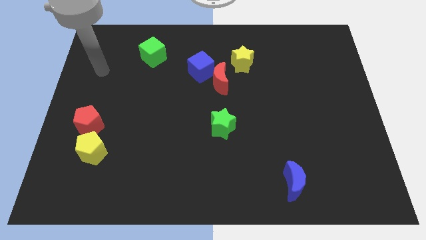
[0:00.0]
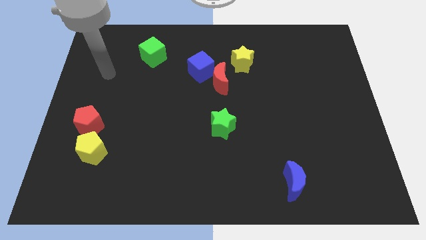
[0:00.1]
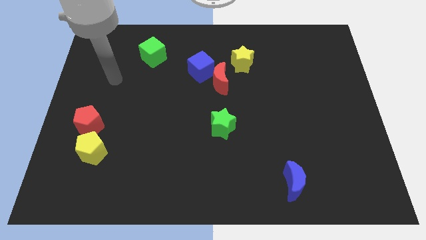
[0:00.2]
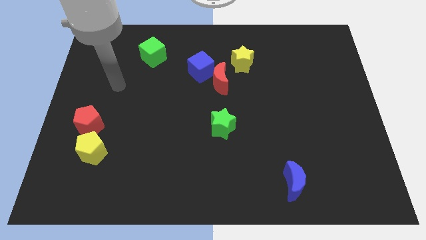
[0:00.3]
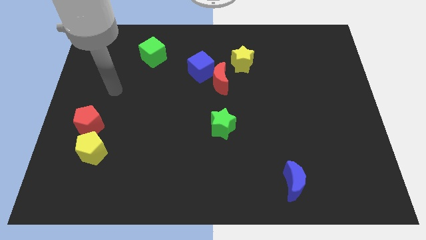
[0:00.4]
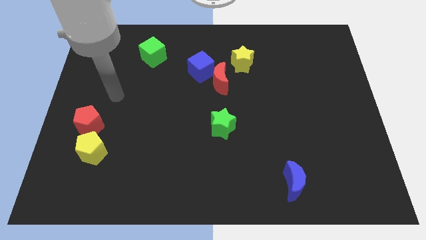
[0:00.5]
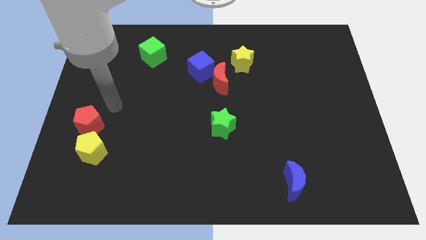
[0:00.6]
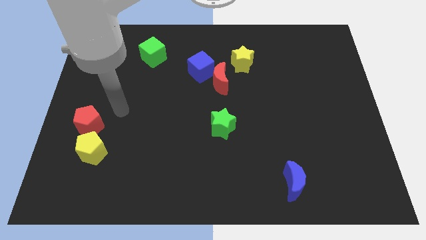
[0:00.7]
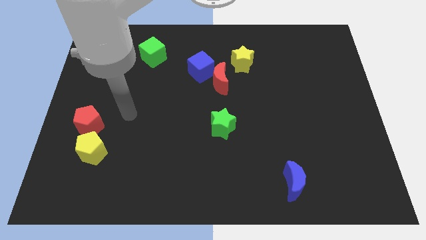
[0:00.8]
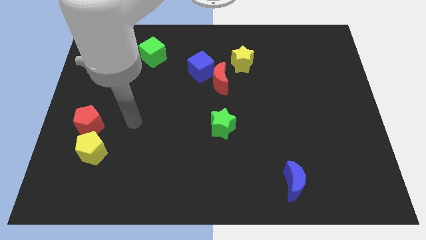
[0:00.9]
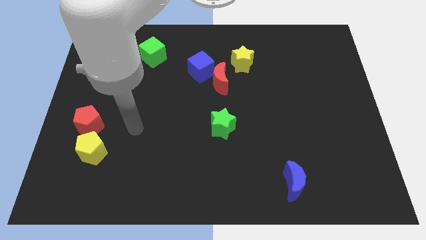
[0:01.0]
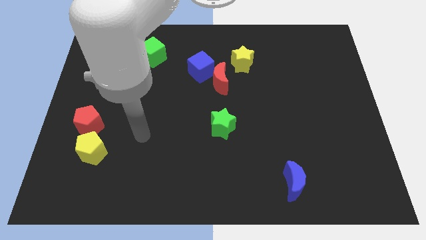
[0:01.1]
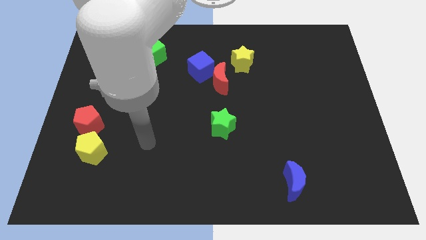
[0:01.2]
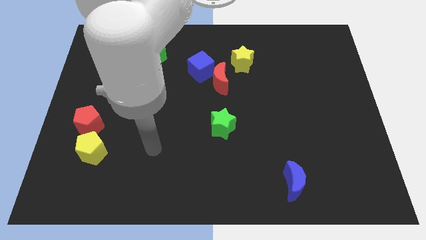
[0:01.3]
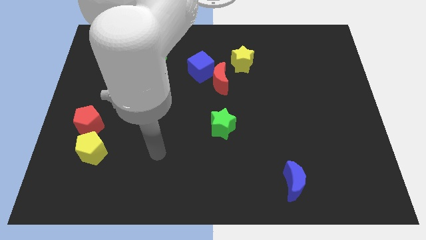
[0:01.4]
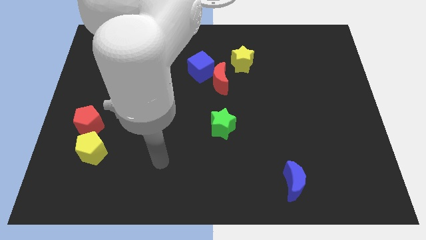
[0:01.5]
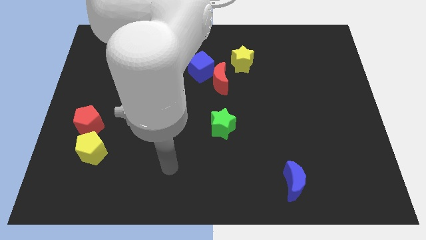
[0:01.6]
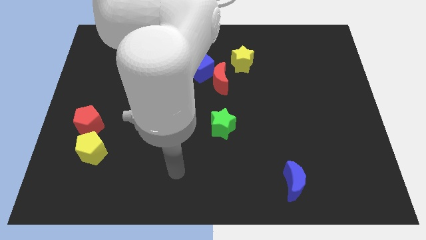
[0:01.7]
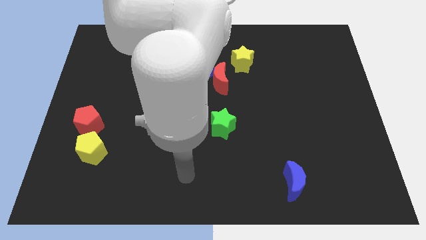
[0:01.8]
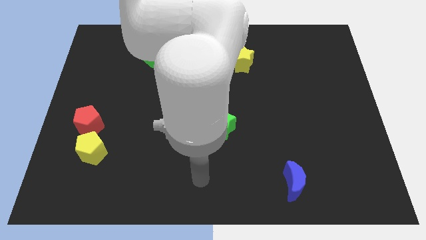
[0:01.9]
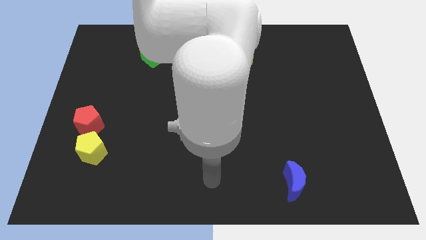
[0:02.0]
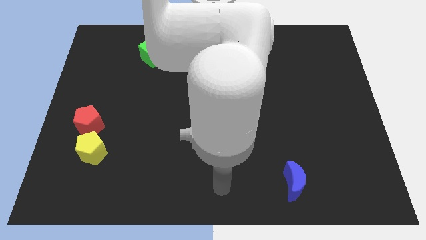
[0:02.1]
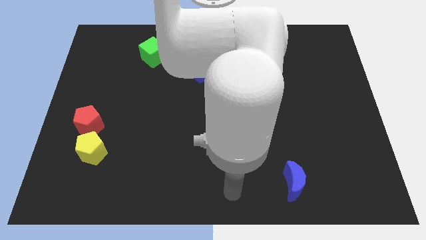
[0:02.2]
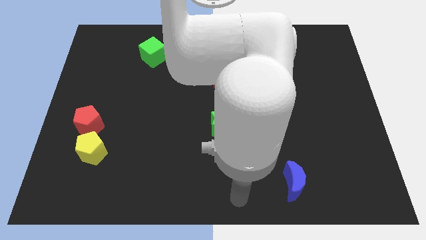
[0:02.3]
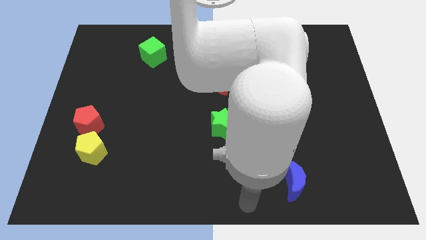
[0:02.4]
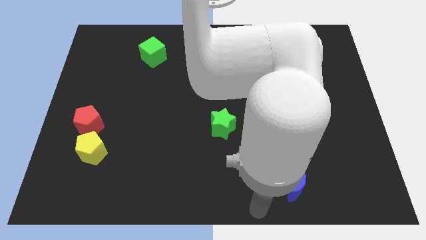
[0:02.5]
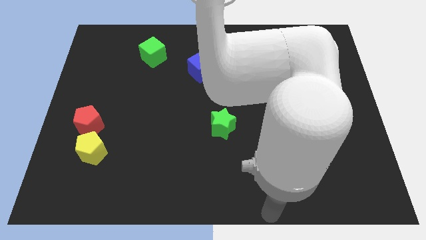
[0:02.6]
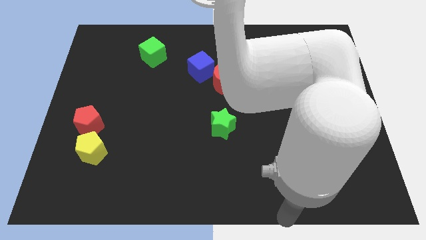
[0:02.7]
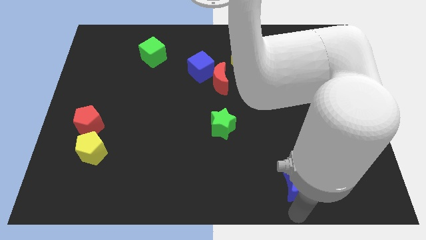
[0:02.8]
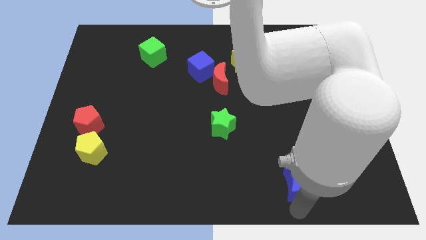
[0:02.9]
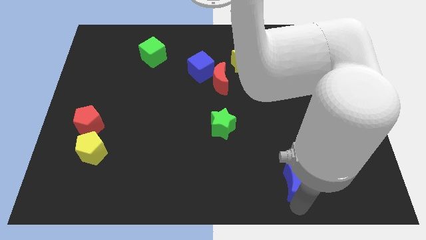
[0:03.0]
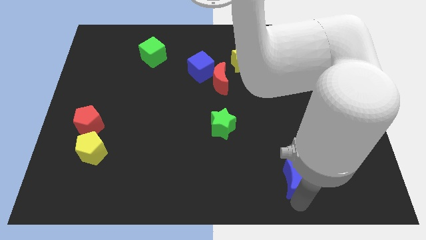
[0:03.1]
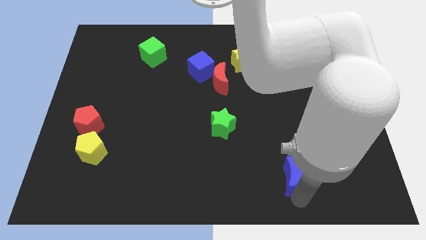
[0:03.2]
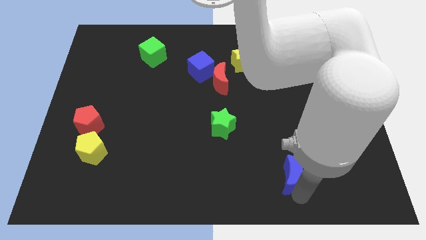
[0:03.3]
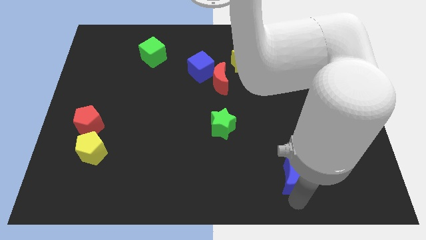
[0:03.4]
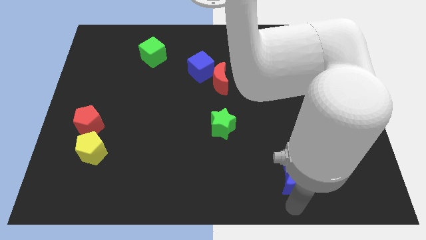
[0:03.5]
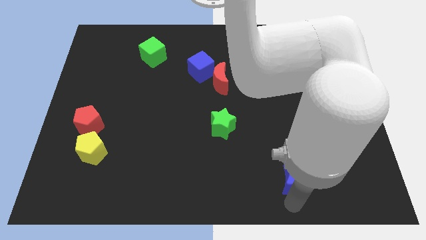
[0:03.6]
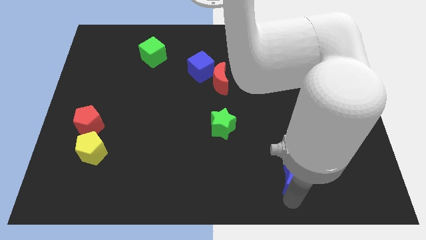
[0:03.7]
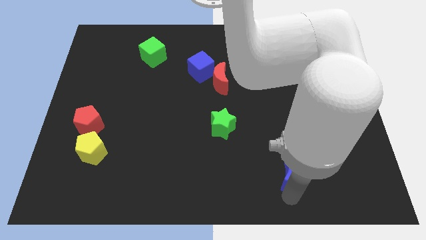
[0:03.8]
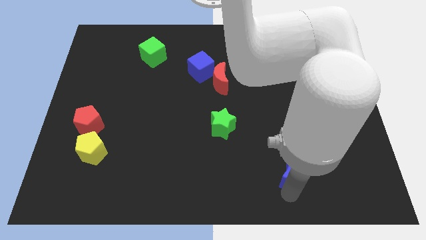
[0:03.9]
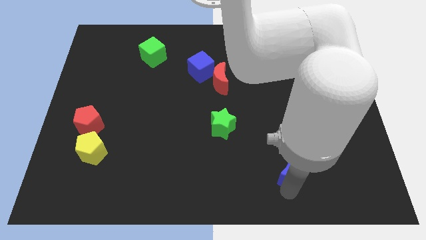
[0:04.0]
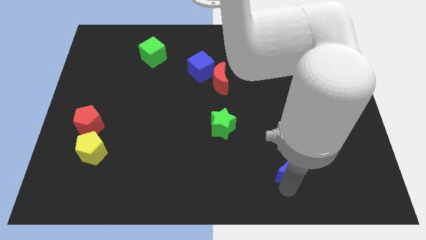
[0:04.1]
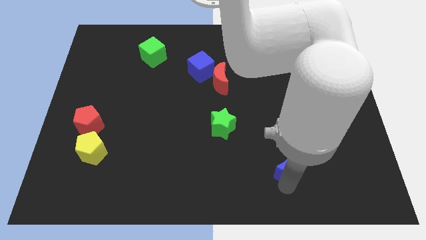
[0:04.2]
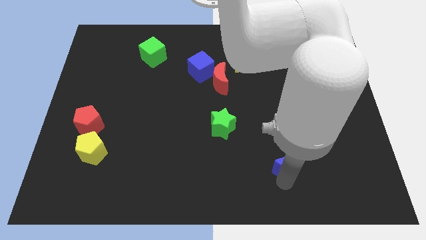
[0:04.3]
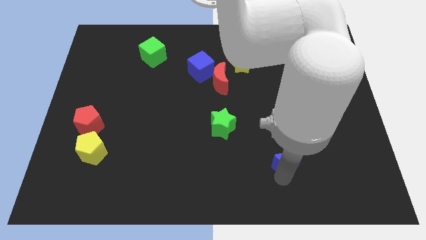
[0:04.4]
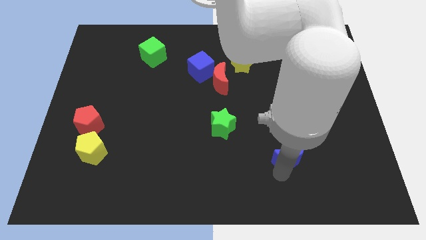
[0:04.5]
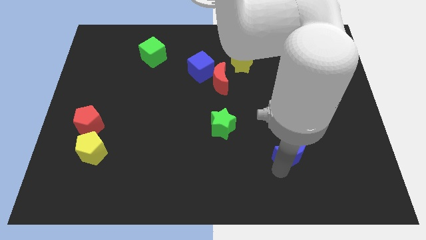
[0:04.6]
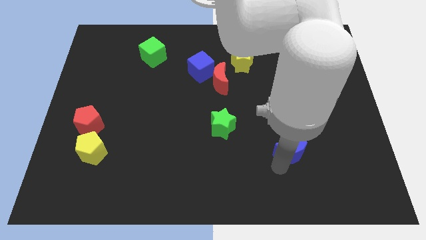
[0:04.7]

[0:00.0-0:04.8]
push the blue moon upwards a bit

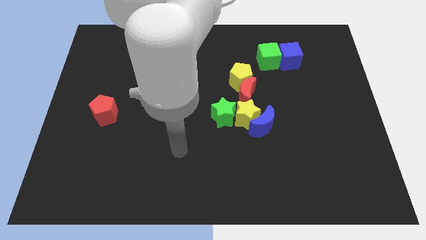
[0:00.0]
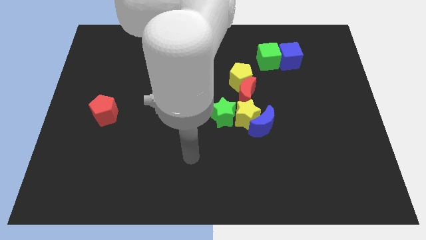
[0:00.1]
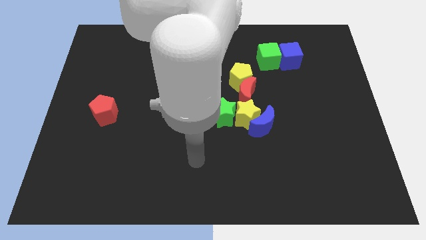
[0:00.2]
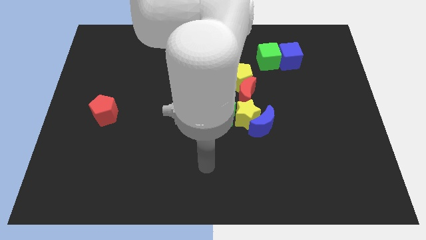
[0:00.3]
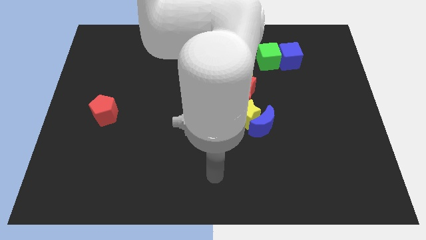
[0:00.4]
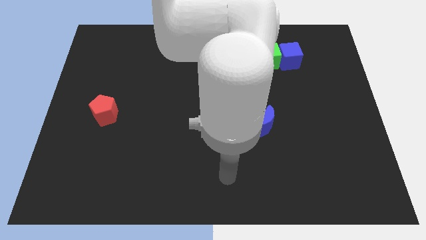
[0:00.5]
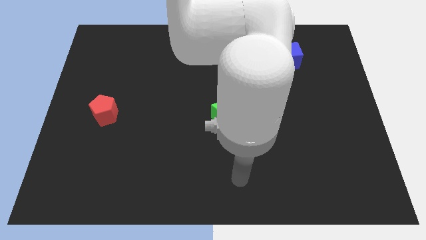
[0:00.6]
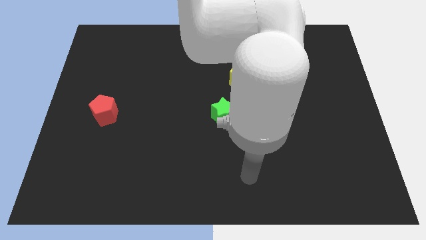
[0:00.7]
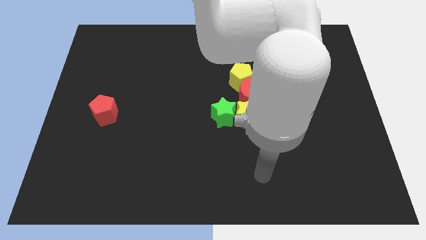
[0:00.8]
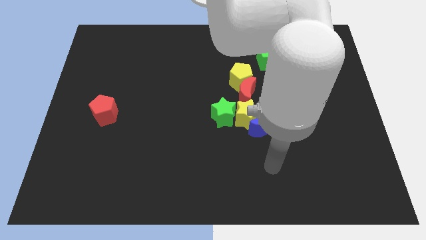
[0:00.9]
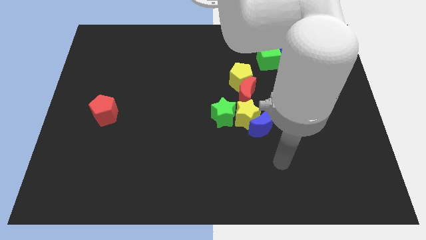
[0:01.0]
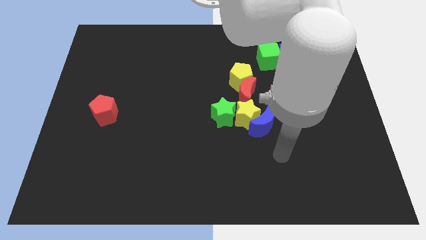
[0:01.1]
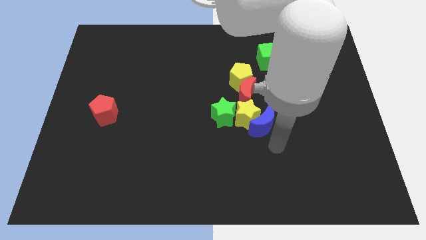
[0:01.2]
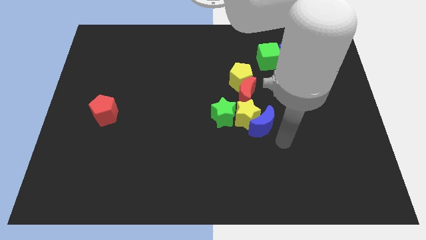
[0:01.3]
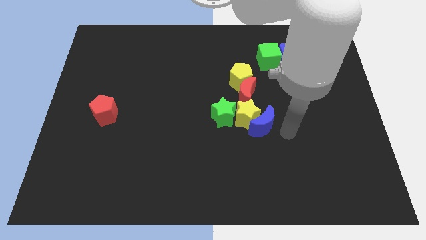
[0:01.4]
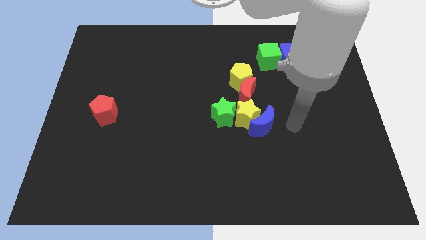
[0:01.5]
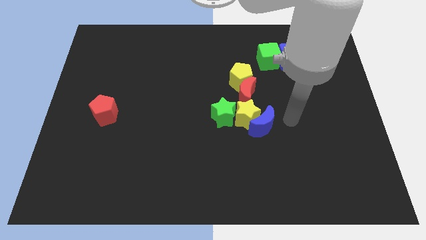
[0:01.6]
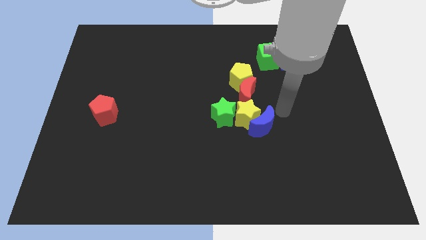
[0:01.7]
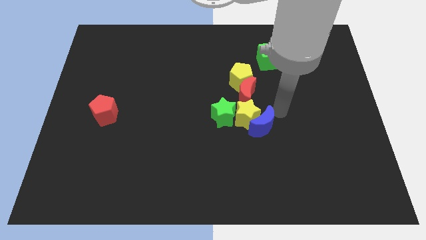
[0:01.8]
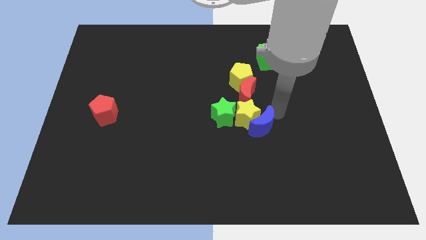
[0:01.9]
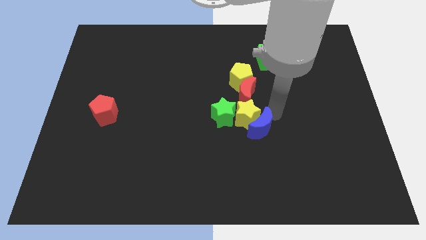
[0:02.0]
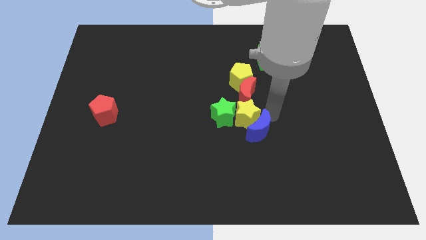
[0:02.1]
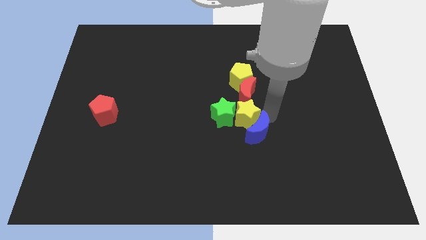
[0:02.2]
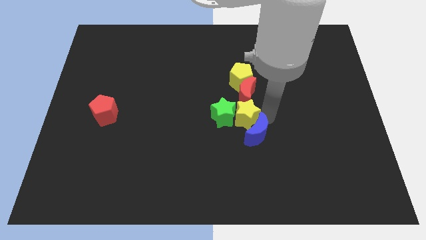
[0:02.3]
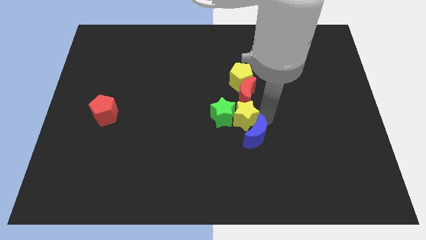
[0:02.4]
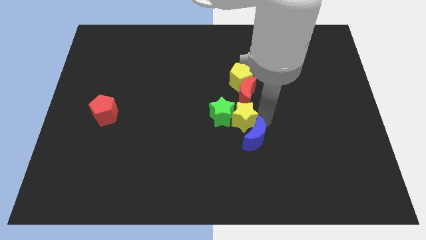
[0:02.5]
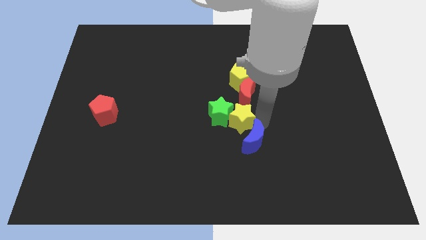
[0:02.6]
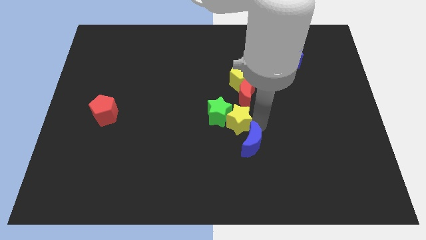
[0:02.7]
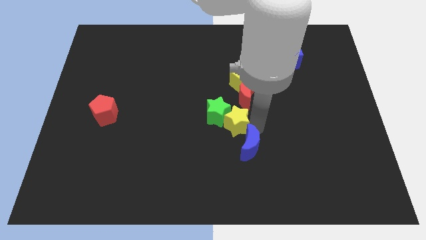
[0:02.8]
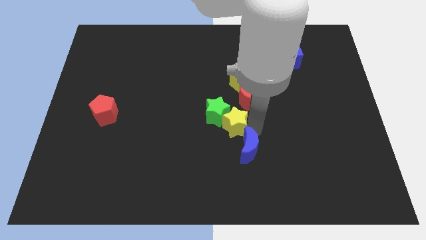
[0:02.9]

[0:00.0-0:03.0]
slide the blue moon a little down and then left

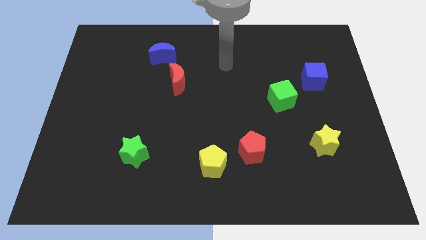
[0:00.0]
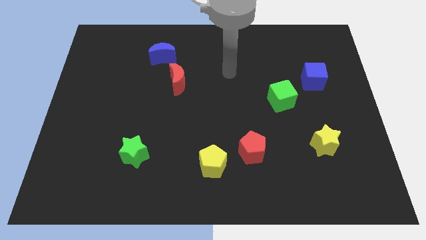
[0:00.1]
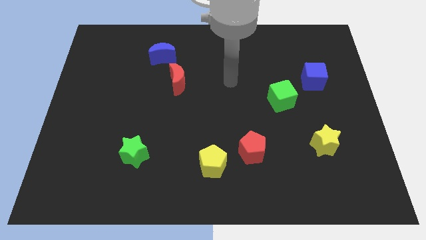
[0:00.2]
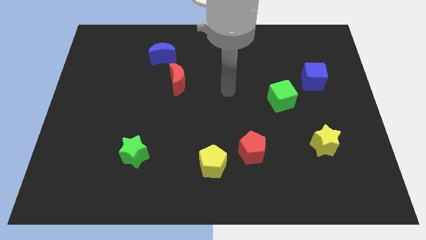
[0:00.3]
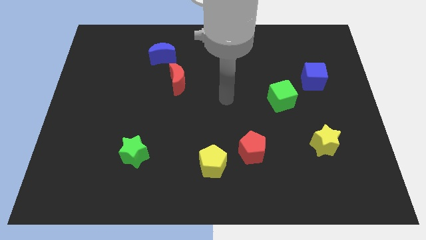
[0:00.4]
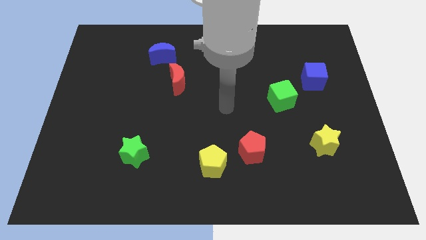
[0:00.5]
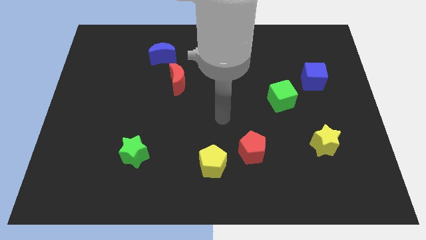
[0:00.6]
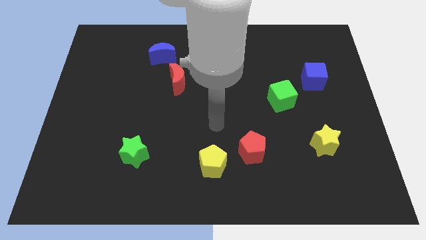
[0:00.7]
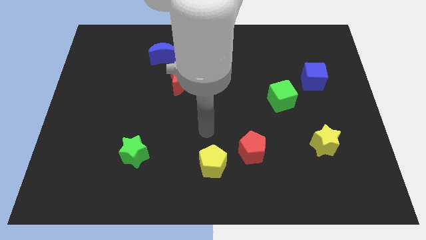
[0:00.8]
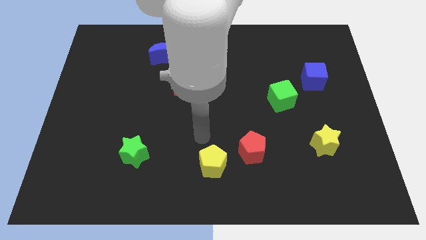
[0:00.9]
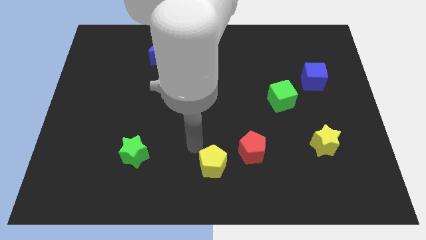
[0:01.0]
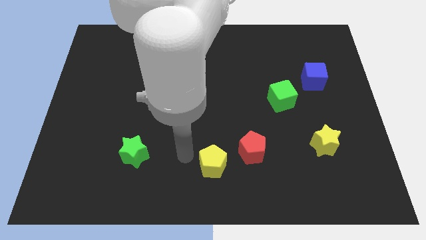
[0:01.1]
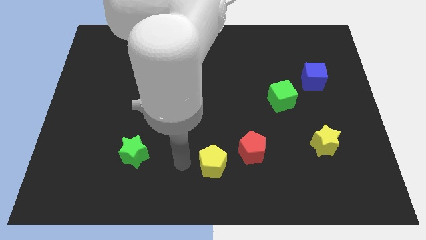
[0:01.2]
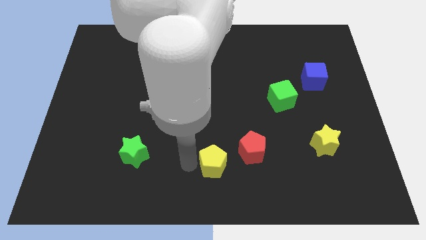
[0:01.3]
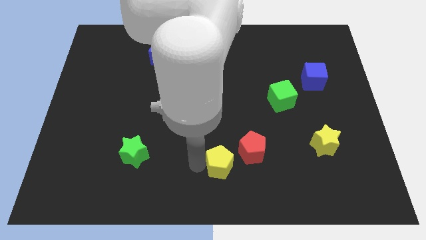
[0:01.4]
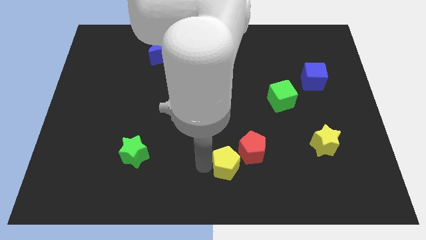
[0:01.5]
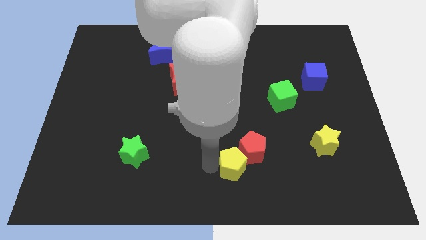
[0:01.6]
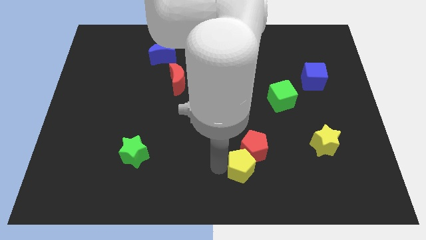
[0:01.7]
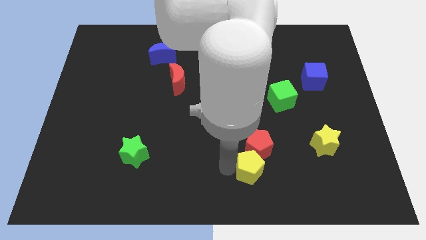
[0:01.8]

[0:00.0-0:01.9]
move the yellow pentagon right a bit
